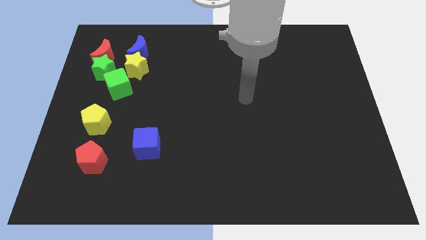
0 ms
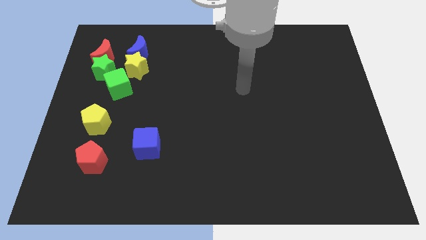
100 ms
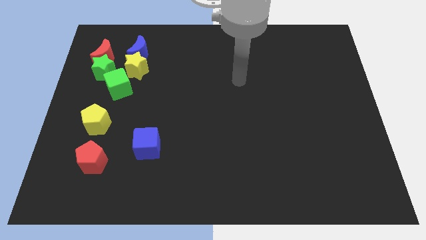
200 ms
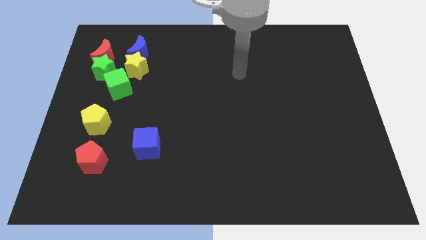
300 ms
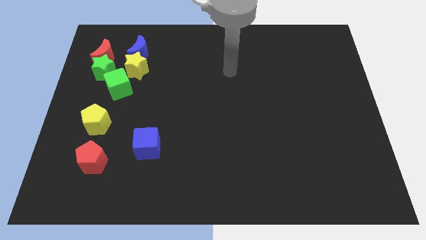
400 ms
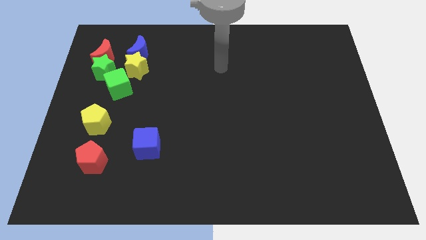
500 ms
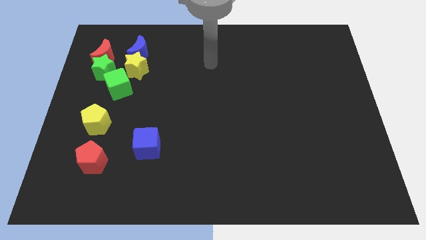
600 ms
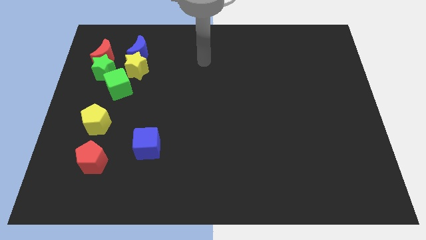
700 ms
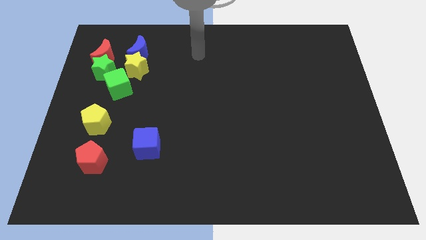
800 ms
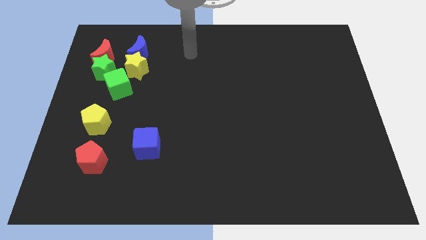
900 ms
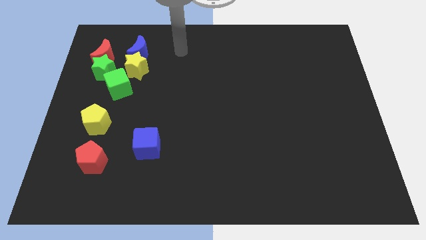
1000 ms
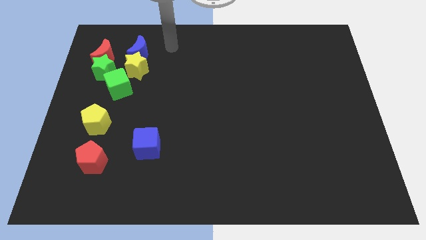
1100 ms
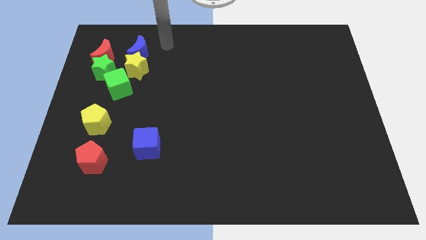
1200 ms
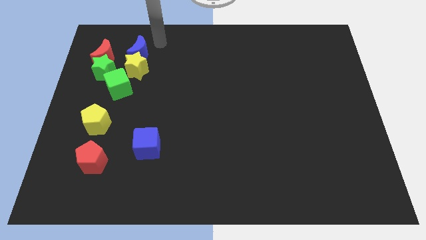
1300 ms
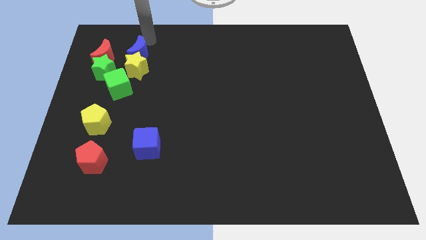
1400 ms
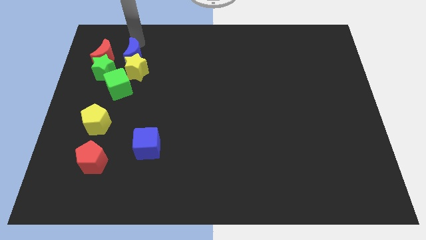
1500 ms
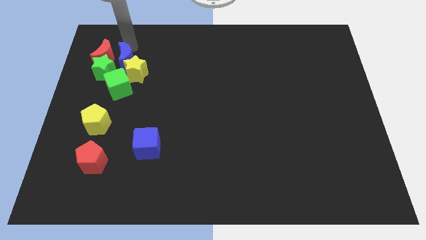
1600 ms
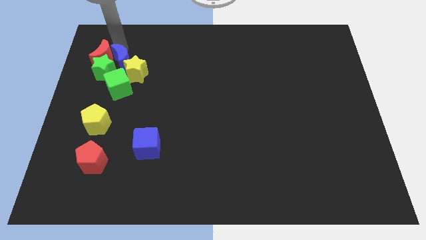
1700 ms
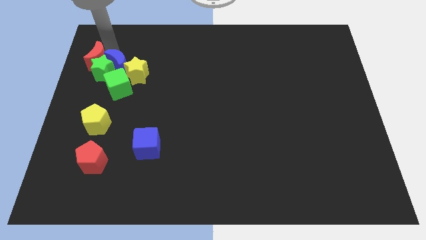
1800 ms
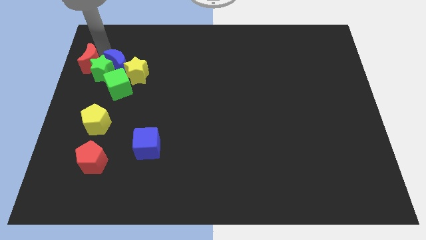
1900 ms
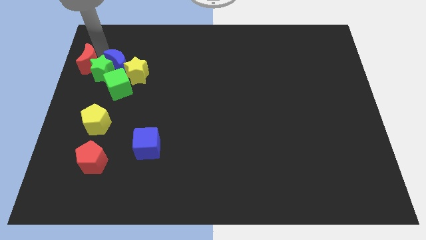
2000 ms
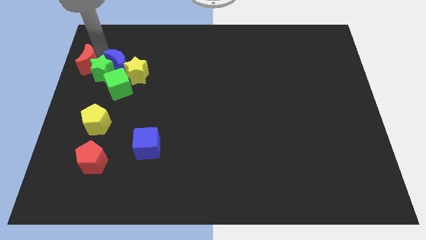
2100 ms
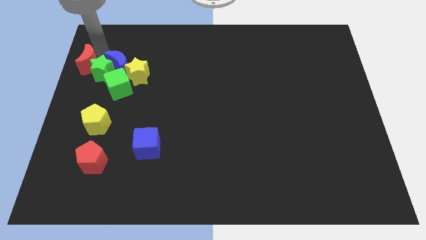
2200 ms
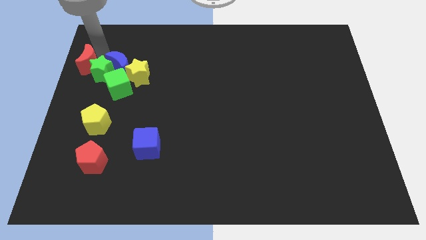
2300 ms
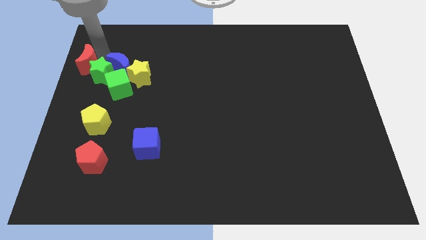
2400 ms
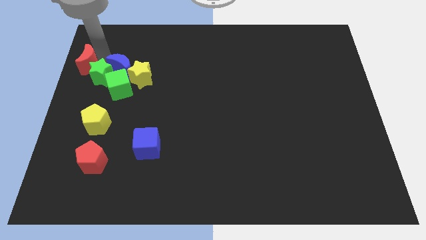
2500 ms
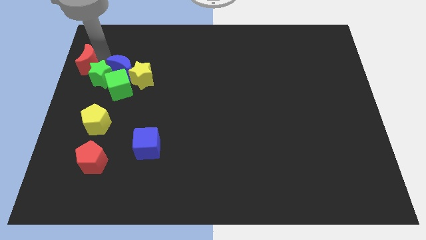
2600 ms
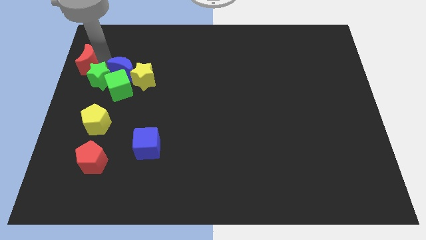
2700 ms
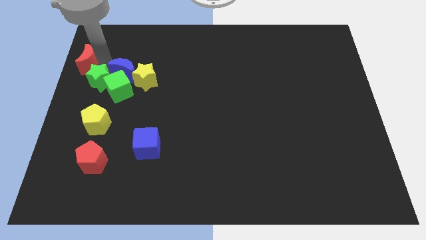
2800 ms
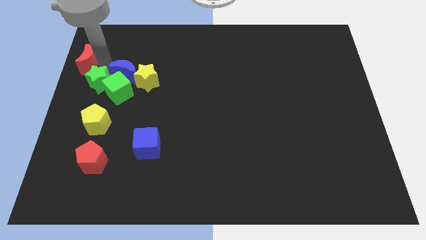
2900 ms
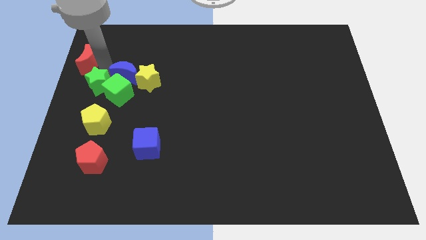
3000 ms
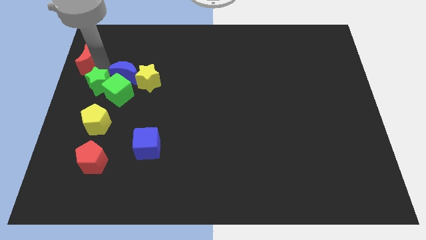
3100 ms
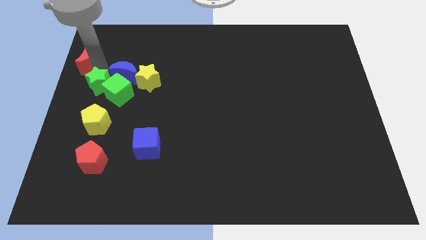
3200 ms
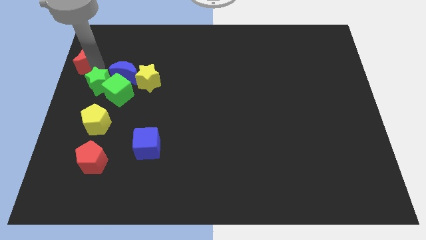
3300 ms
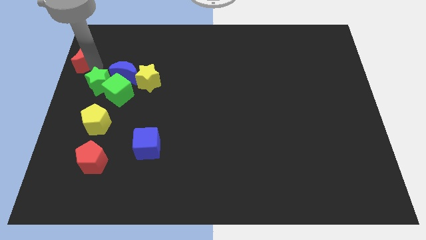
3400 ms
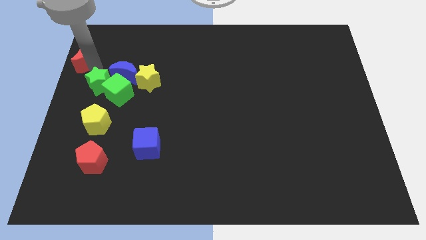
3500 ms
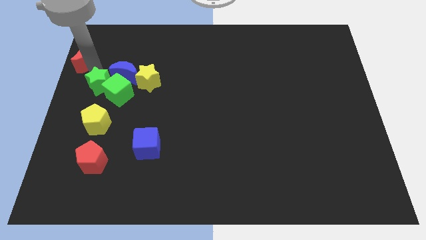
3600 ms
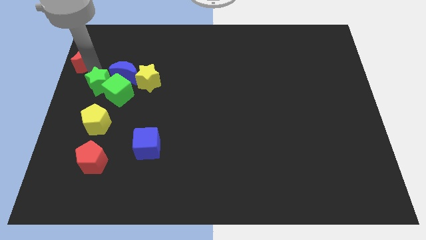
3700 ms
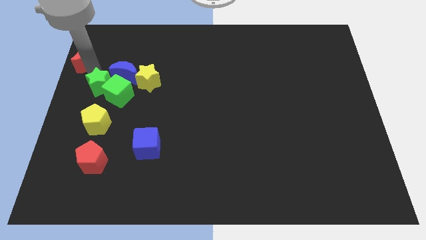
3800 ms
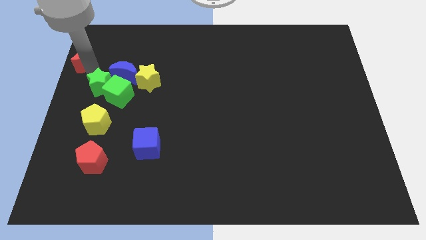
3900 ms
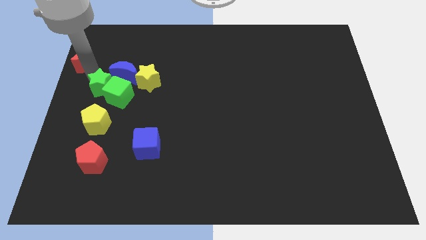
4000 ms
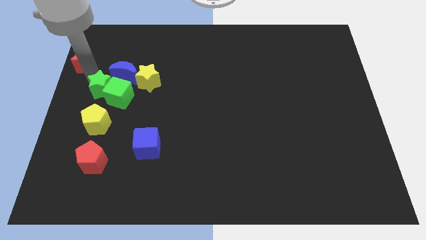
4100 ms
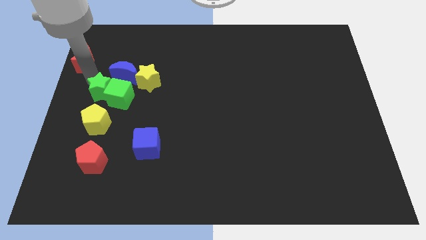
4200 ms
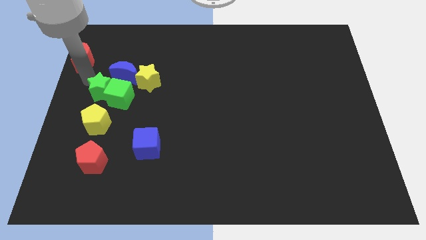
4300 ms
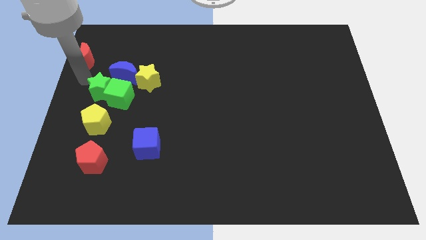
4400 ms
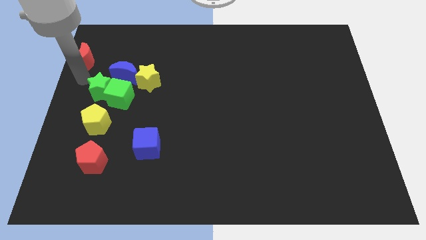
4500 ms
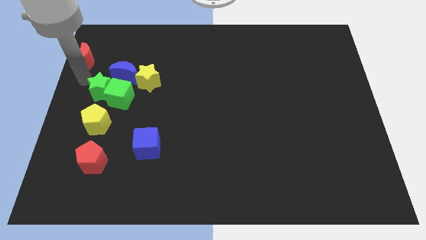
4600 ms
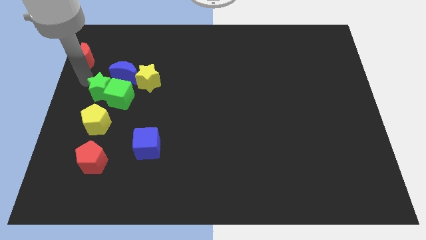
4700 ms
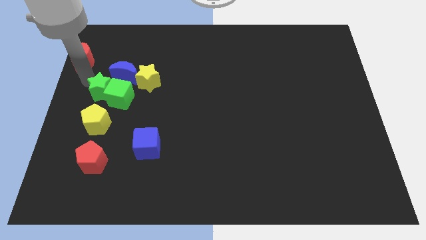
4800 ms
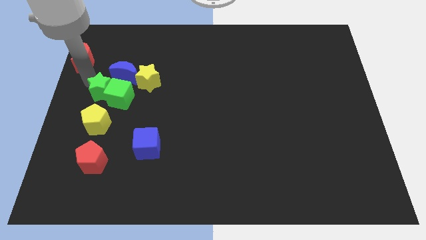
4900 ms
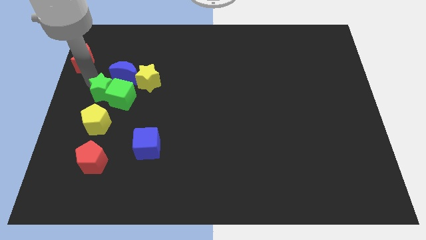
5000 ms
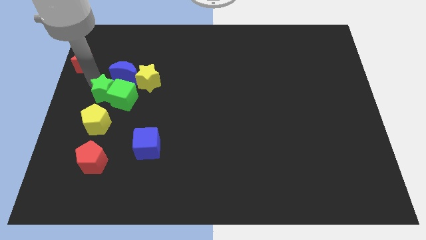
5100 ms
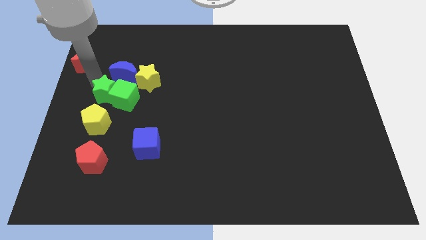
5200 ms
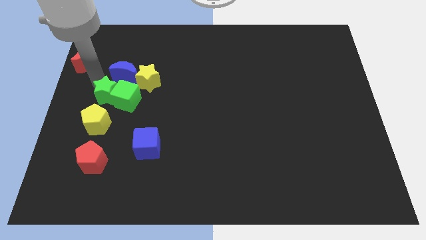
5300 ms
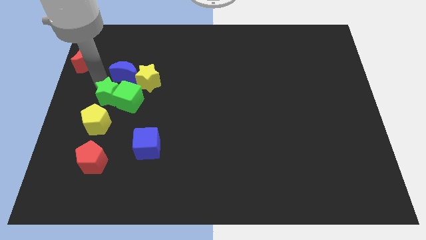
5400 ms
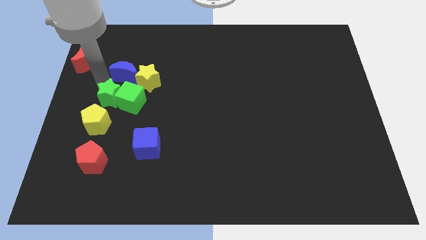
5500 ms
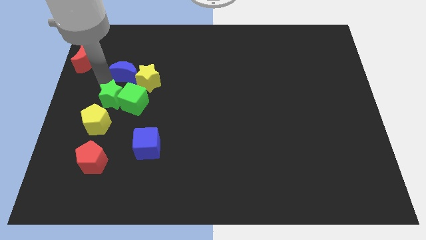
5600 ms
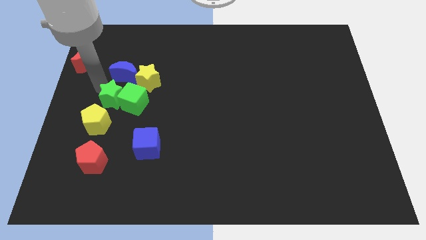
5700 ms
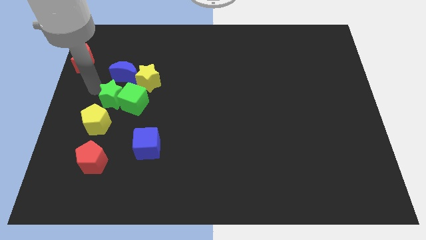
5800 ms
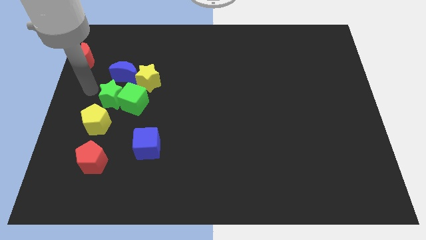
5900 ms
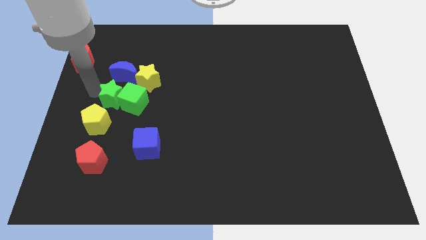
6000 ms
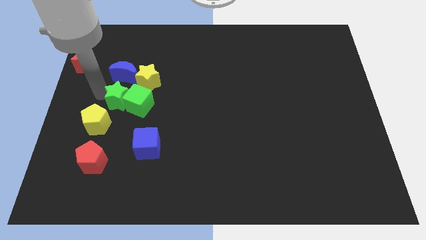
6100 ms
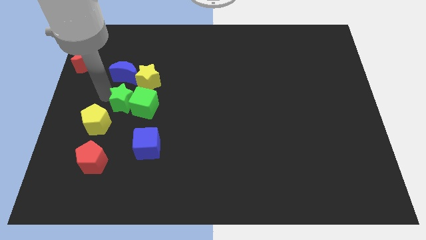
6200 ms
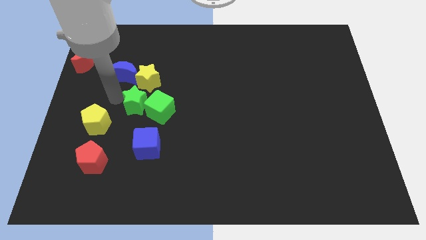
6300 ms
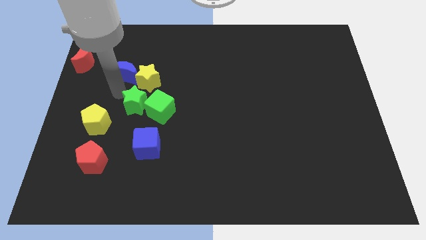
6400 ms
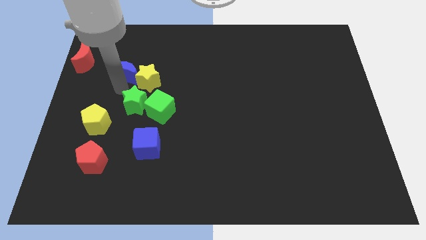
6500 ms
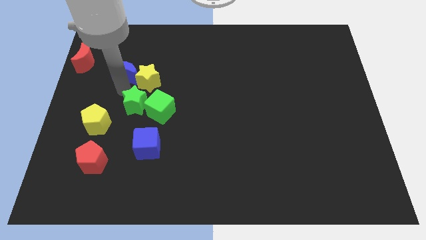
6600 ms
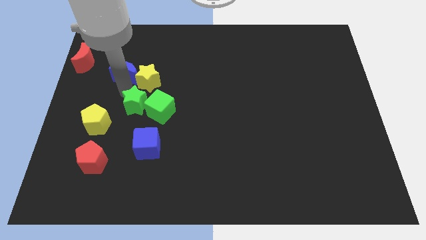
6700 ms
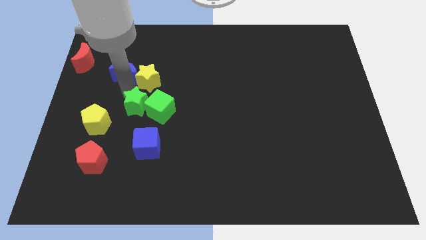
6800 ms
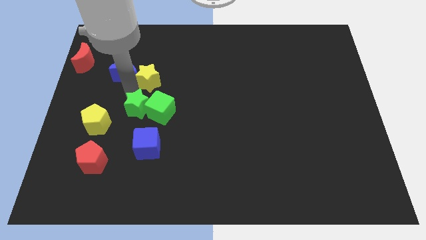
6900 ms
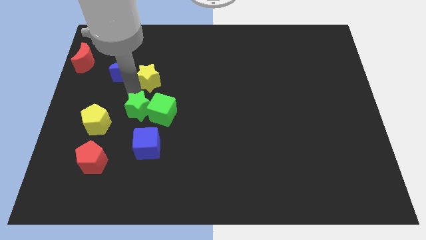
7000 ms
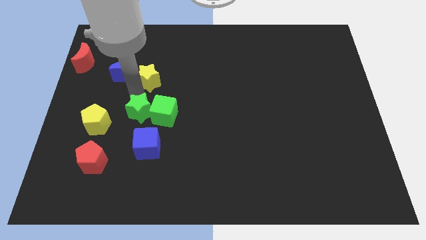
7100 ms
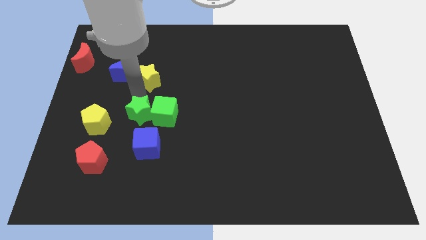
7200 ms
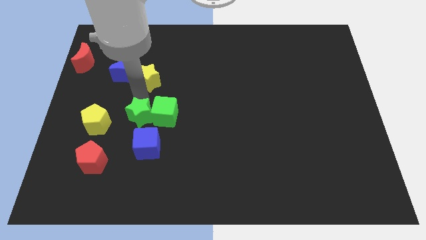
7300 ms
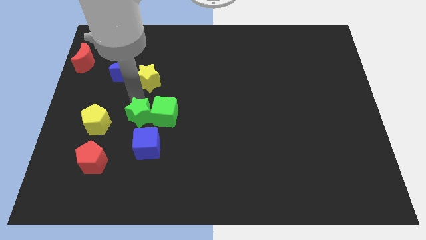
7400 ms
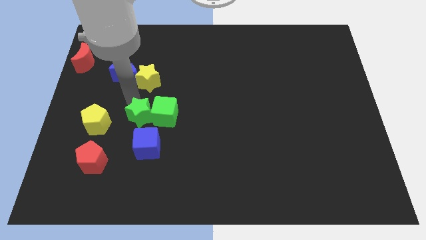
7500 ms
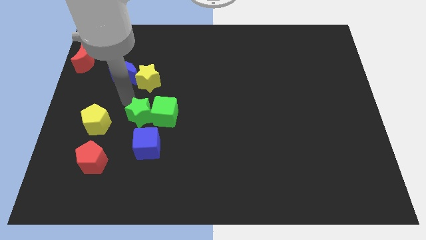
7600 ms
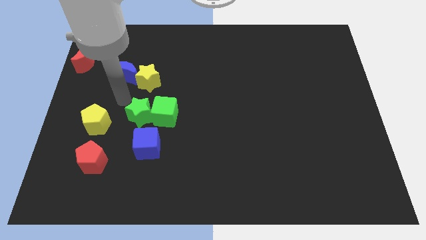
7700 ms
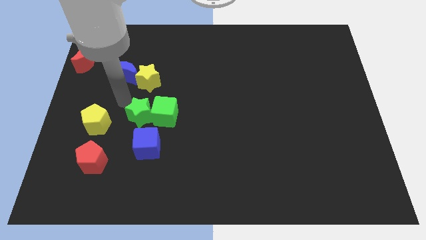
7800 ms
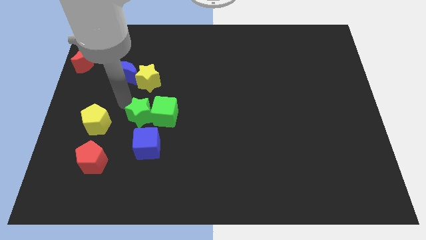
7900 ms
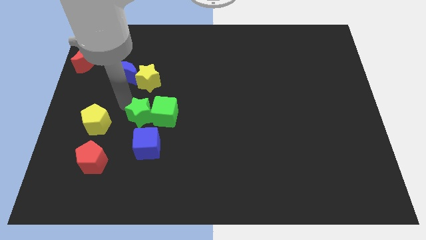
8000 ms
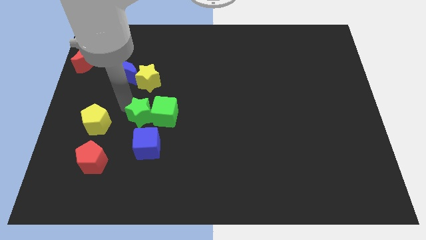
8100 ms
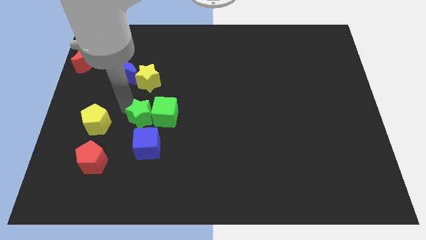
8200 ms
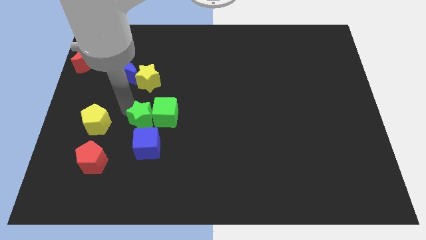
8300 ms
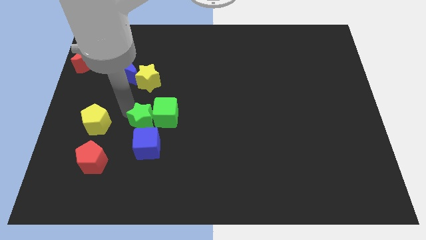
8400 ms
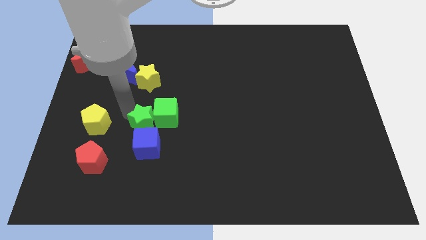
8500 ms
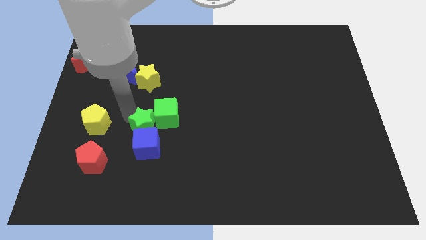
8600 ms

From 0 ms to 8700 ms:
move the green star downwards and right diagonally
